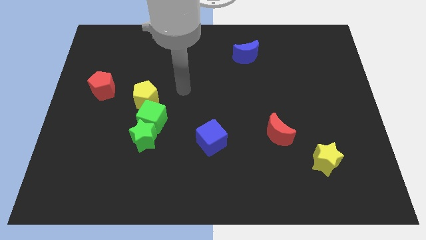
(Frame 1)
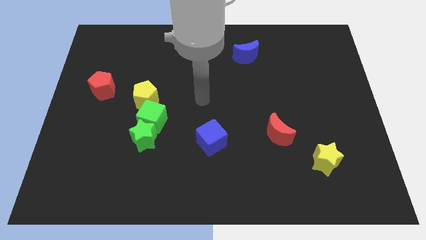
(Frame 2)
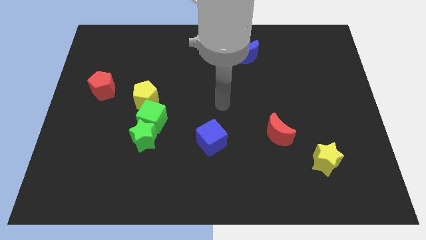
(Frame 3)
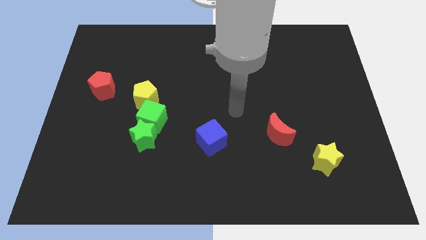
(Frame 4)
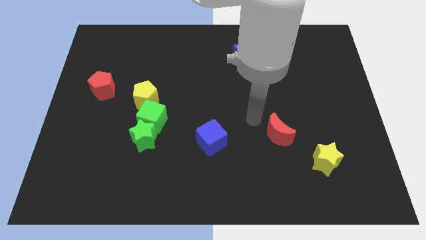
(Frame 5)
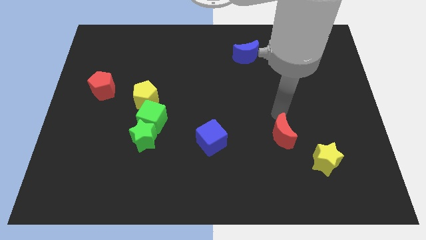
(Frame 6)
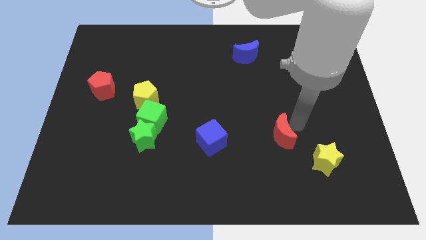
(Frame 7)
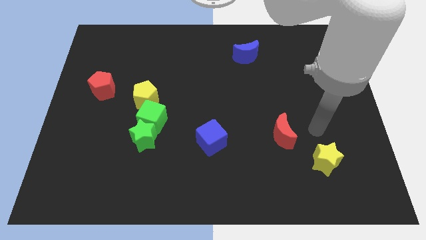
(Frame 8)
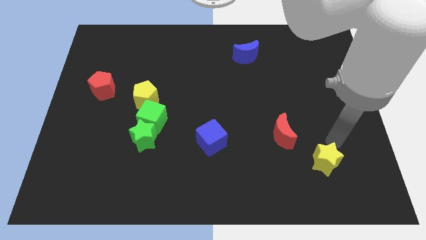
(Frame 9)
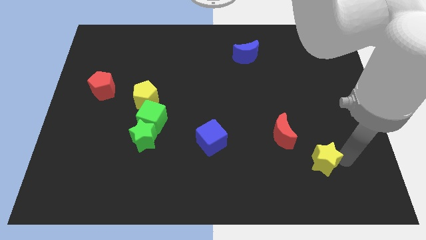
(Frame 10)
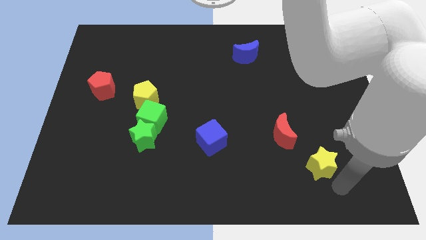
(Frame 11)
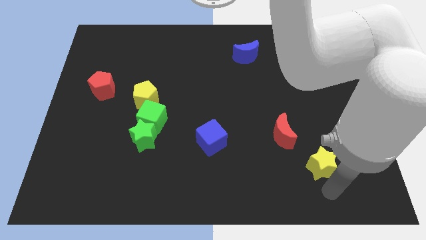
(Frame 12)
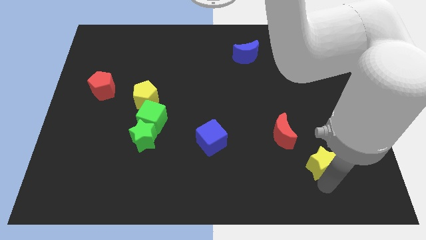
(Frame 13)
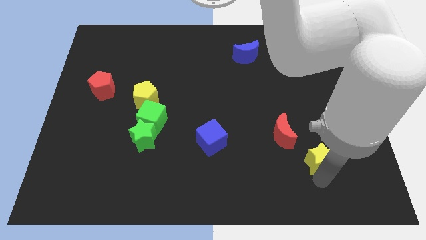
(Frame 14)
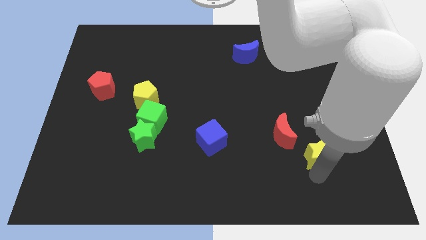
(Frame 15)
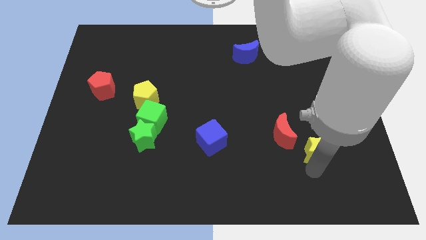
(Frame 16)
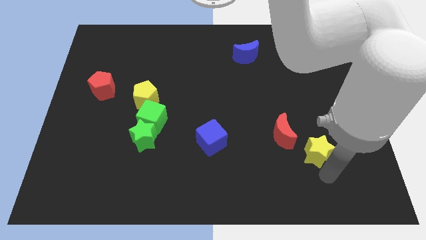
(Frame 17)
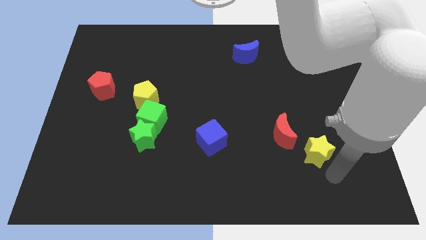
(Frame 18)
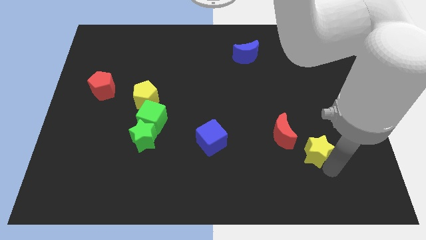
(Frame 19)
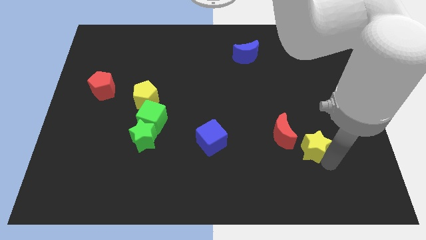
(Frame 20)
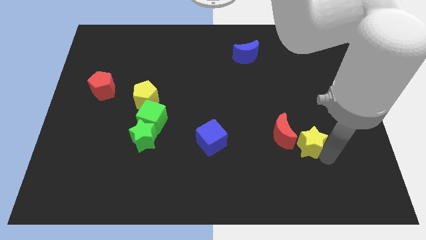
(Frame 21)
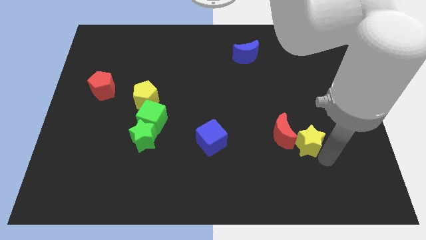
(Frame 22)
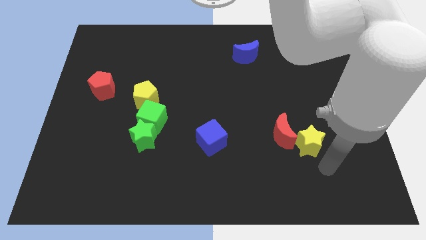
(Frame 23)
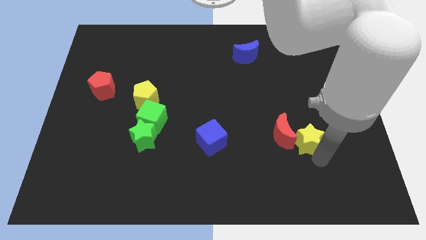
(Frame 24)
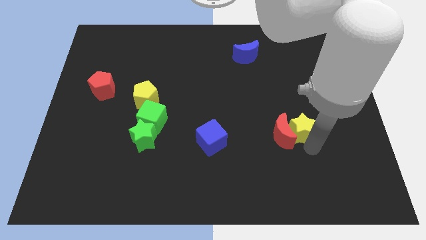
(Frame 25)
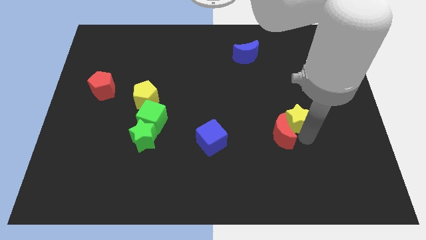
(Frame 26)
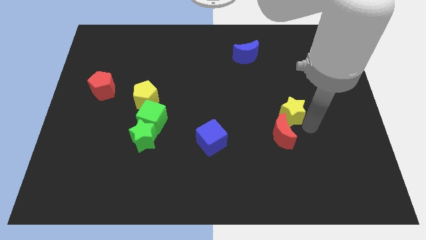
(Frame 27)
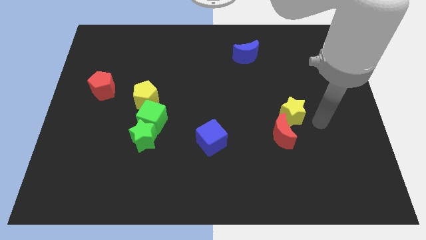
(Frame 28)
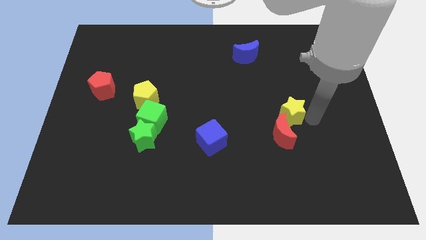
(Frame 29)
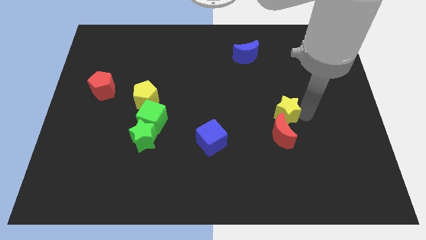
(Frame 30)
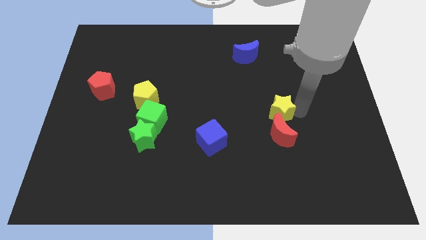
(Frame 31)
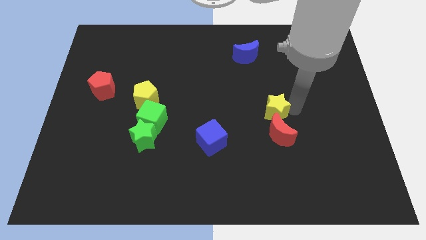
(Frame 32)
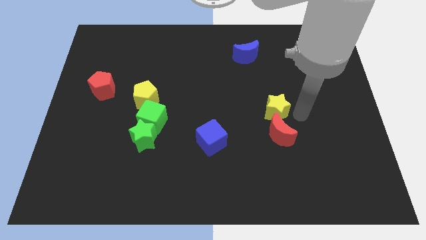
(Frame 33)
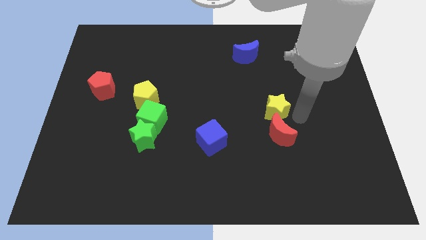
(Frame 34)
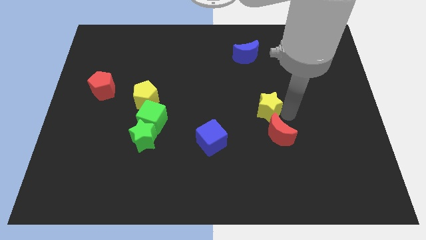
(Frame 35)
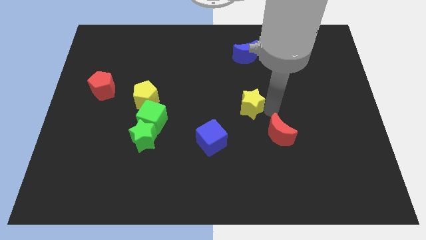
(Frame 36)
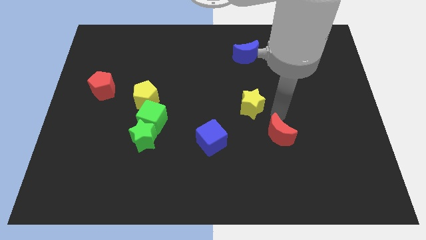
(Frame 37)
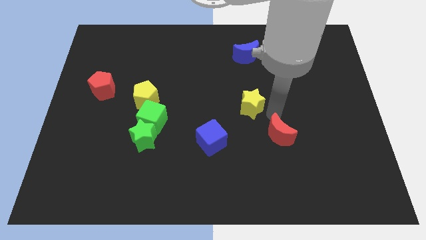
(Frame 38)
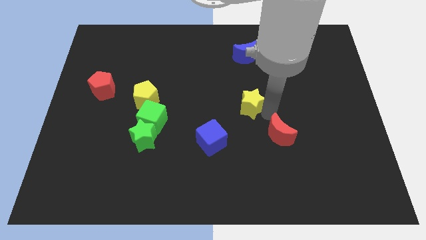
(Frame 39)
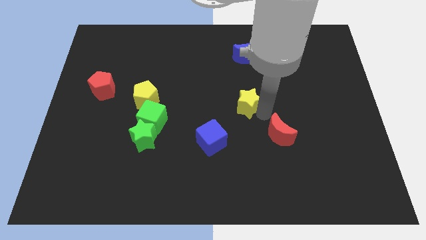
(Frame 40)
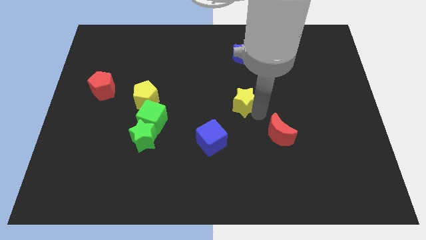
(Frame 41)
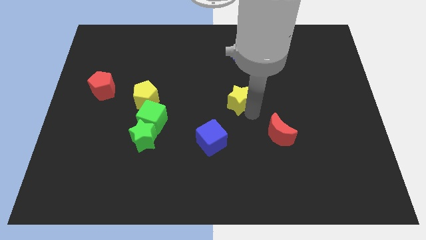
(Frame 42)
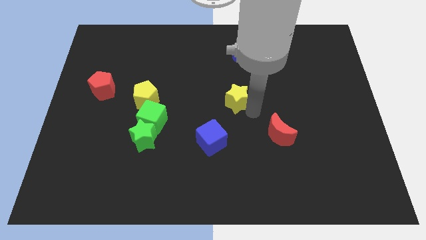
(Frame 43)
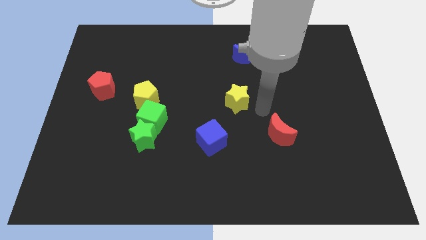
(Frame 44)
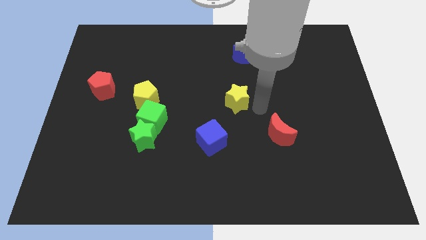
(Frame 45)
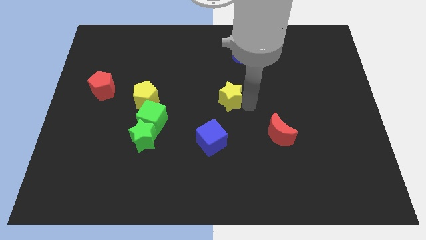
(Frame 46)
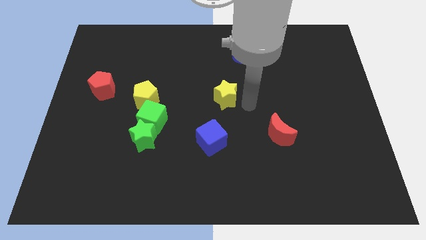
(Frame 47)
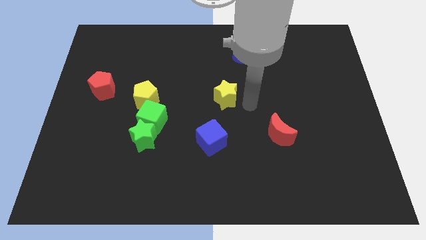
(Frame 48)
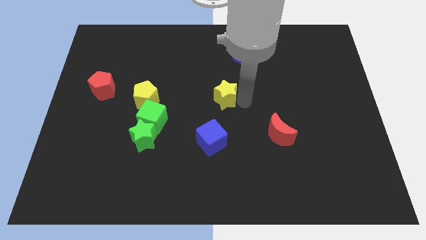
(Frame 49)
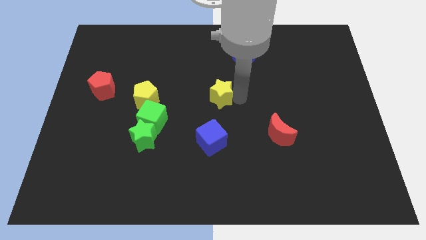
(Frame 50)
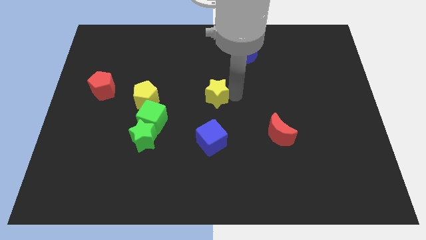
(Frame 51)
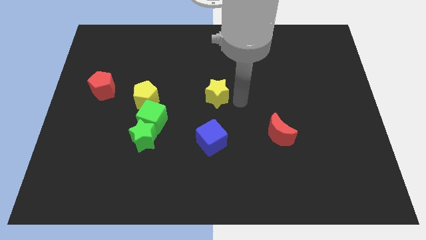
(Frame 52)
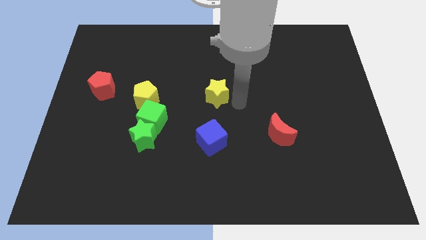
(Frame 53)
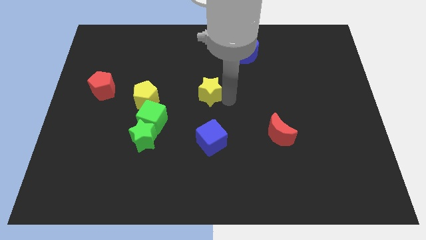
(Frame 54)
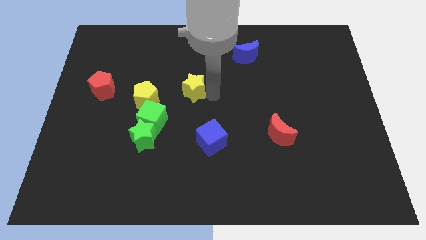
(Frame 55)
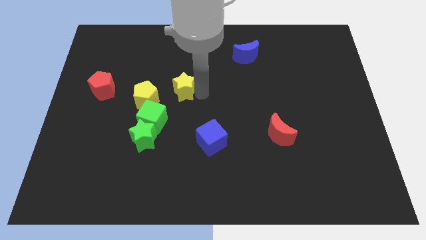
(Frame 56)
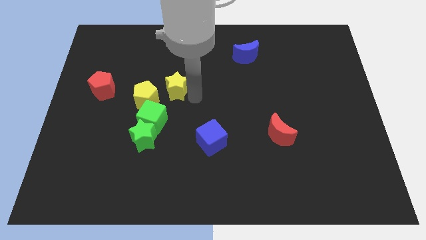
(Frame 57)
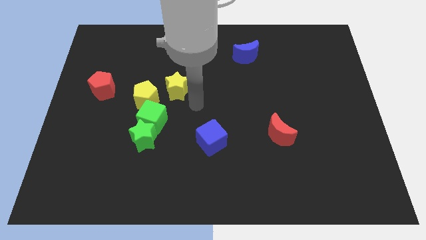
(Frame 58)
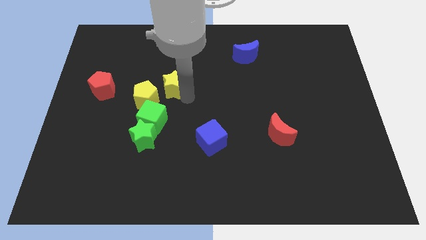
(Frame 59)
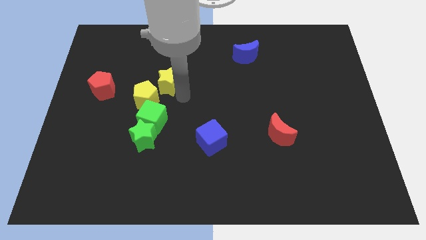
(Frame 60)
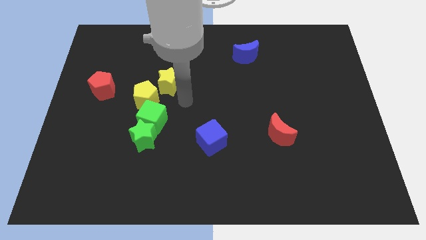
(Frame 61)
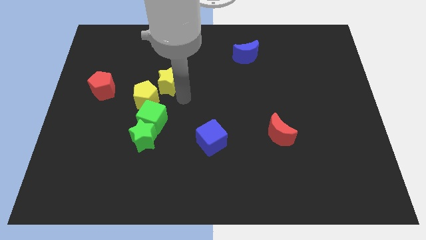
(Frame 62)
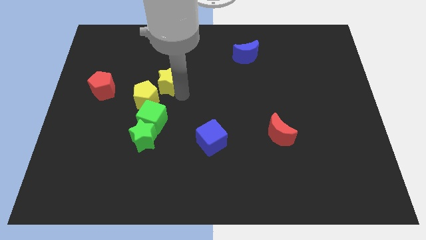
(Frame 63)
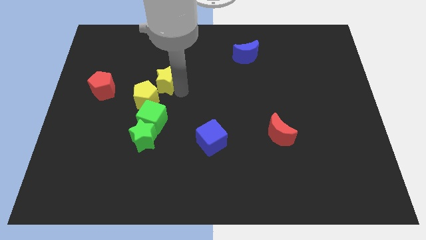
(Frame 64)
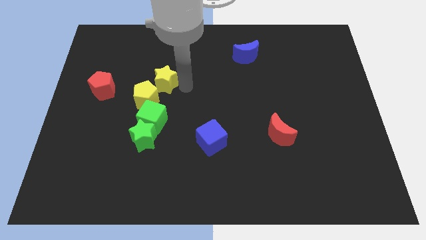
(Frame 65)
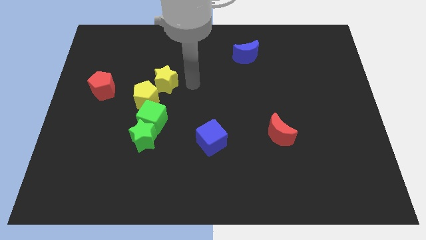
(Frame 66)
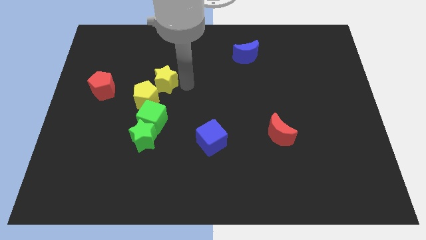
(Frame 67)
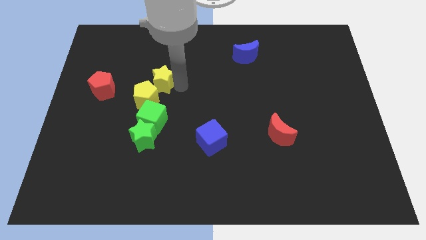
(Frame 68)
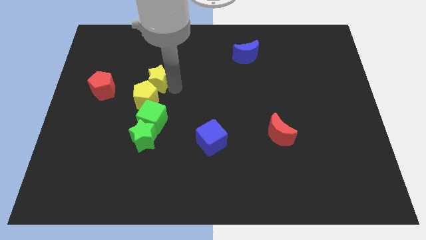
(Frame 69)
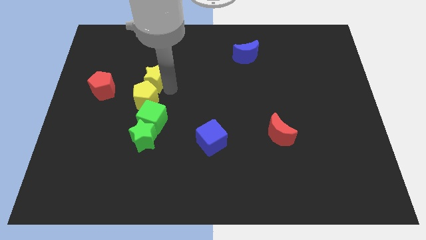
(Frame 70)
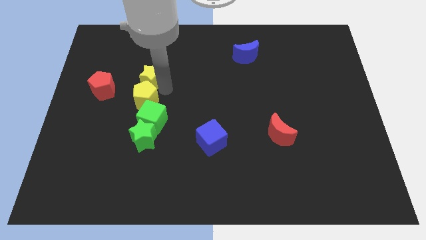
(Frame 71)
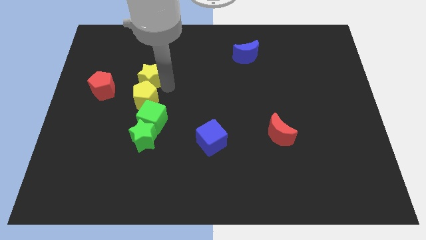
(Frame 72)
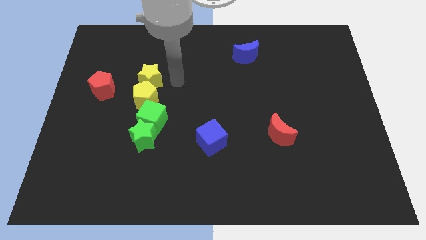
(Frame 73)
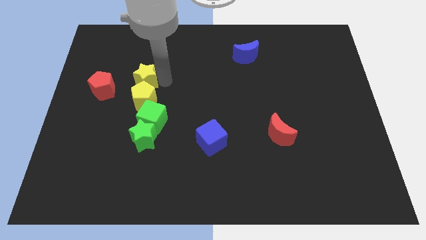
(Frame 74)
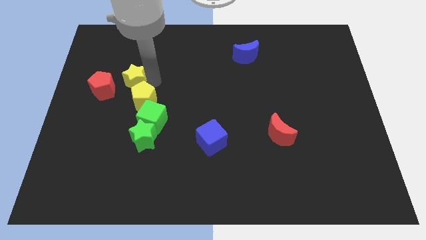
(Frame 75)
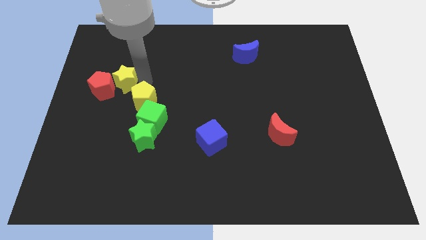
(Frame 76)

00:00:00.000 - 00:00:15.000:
put the yellow star close to the red pentagon
